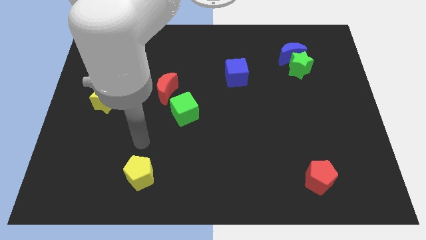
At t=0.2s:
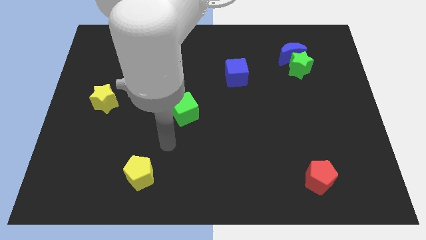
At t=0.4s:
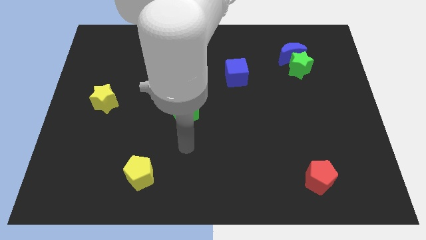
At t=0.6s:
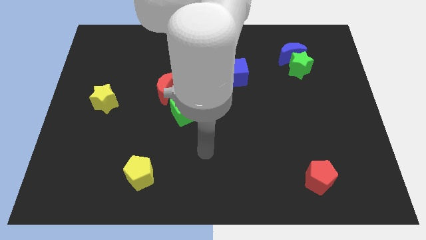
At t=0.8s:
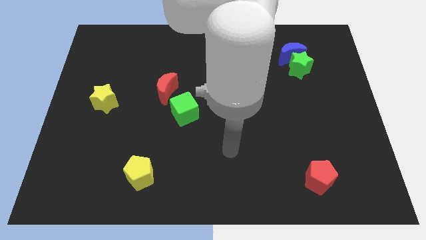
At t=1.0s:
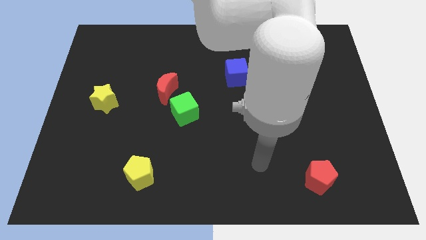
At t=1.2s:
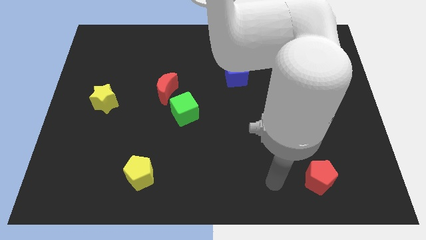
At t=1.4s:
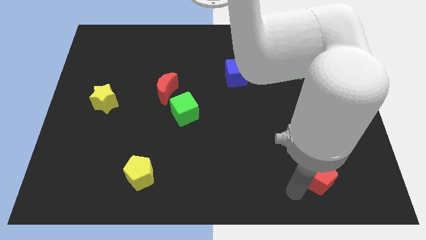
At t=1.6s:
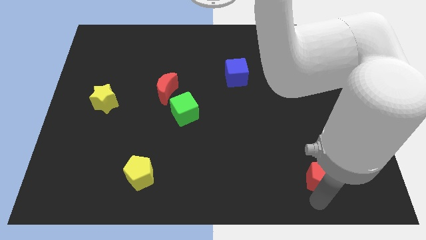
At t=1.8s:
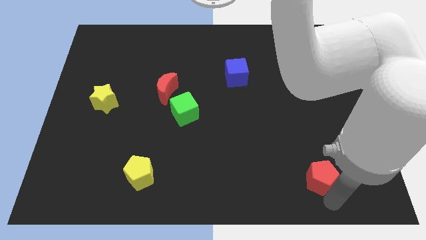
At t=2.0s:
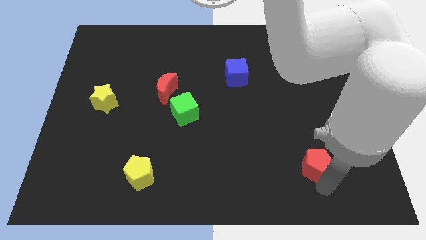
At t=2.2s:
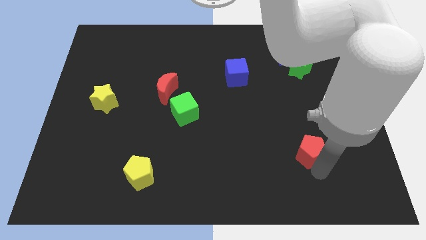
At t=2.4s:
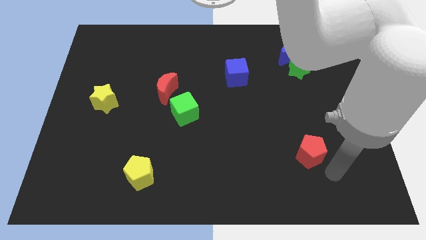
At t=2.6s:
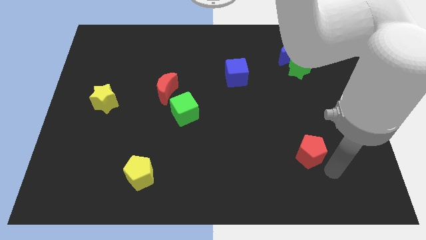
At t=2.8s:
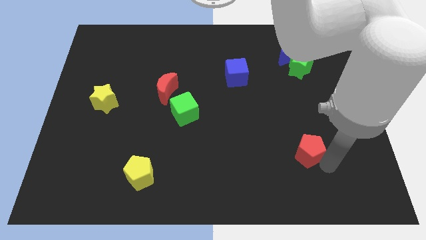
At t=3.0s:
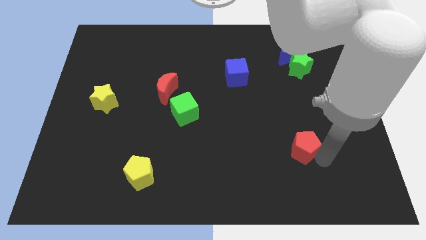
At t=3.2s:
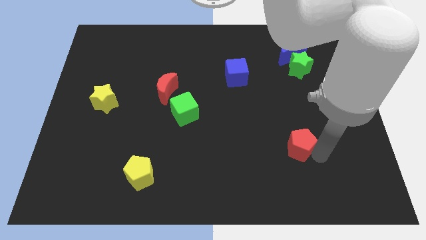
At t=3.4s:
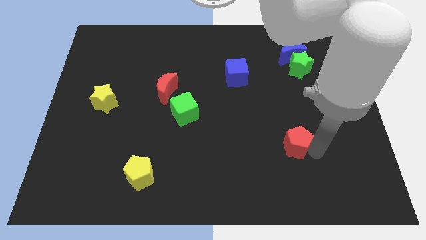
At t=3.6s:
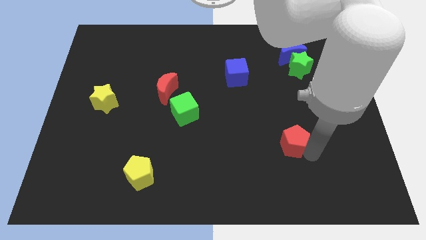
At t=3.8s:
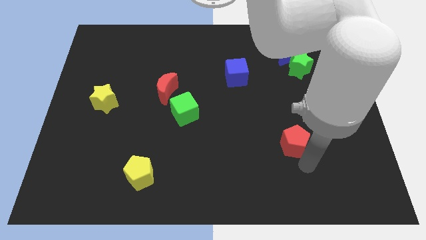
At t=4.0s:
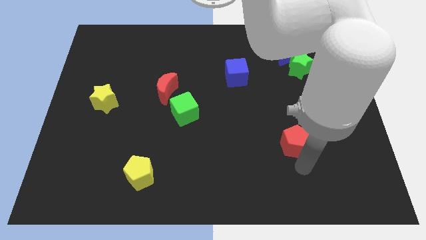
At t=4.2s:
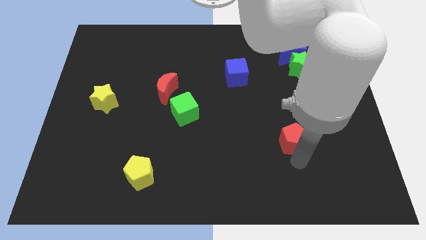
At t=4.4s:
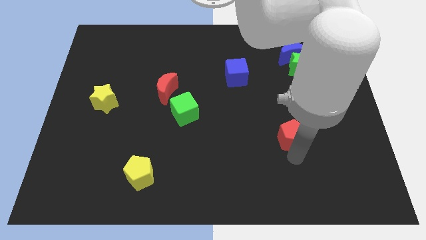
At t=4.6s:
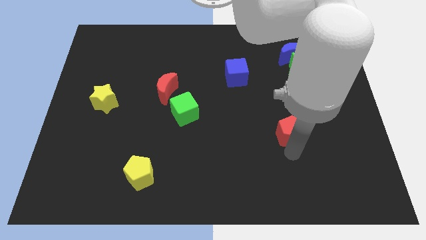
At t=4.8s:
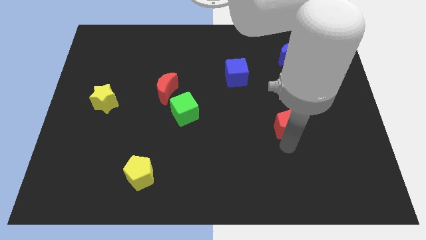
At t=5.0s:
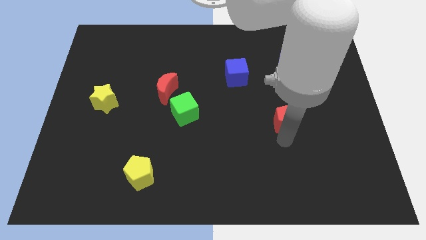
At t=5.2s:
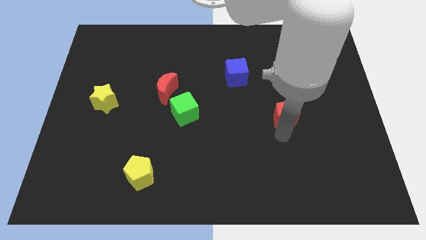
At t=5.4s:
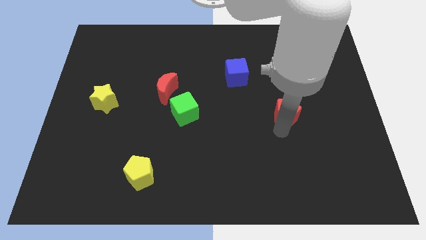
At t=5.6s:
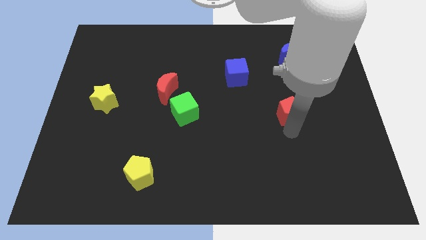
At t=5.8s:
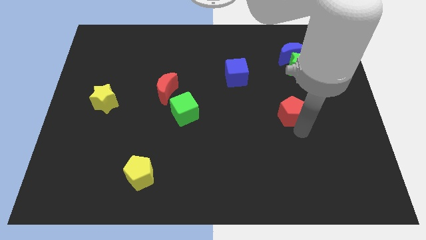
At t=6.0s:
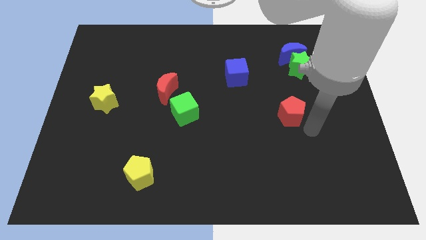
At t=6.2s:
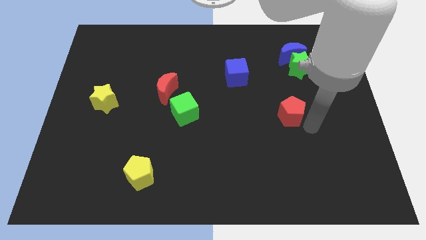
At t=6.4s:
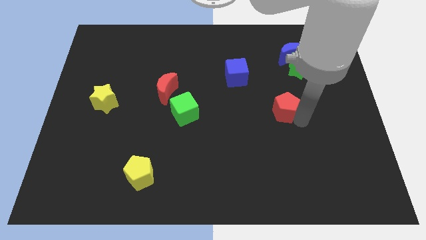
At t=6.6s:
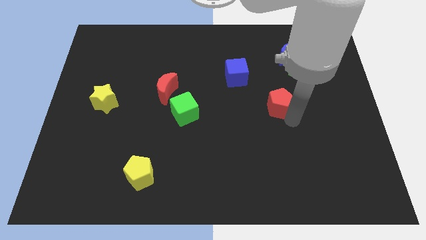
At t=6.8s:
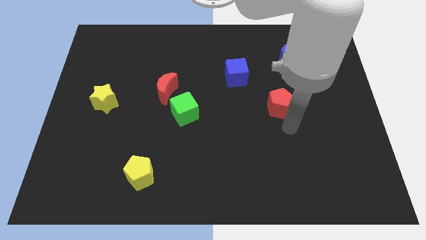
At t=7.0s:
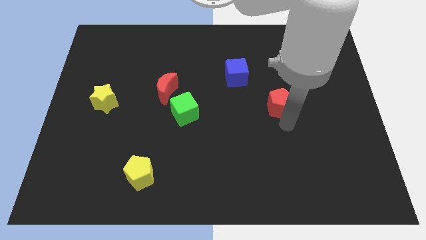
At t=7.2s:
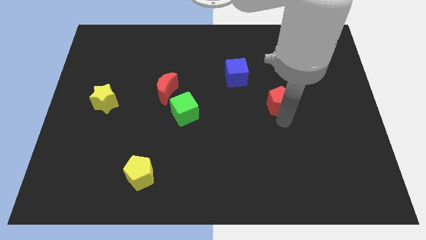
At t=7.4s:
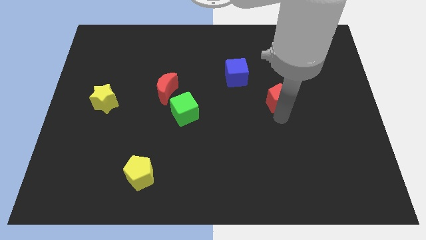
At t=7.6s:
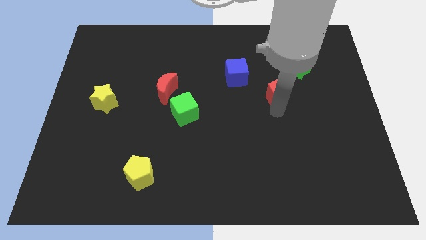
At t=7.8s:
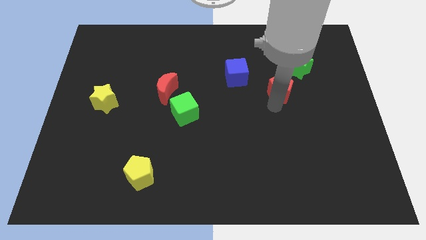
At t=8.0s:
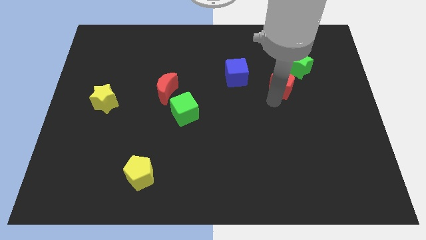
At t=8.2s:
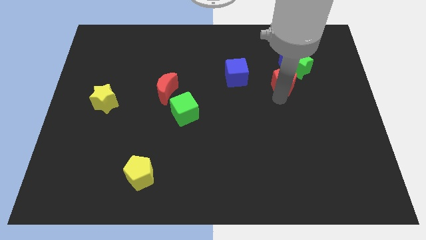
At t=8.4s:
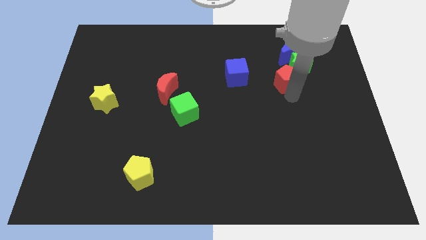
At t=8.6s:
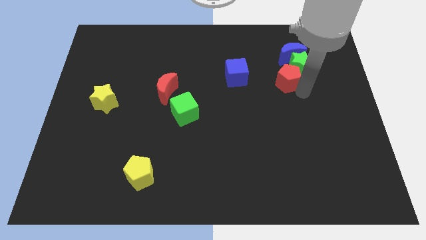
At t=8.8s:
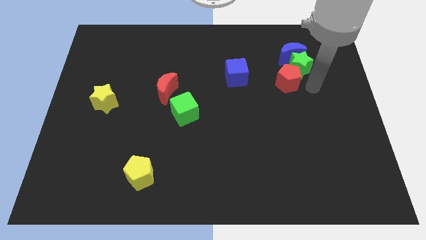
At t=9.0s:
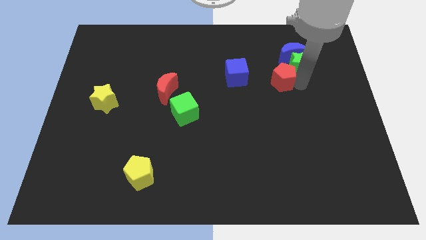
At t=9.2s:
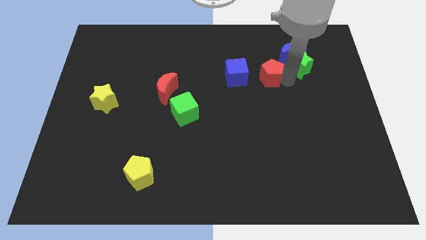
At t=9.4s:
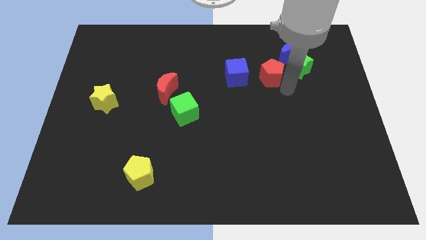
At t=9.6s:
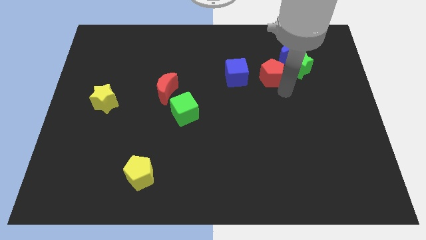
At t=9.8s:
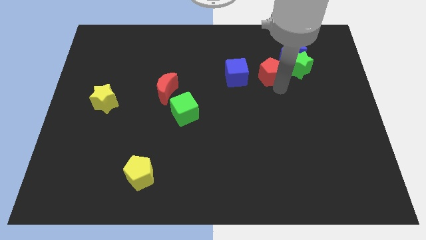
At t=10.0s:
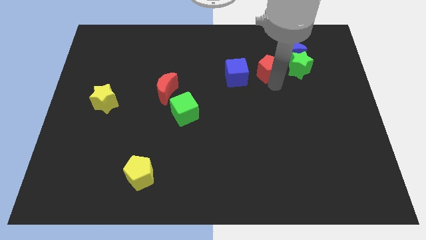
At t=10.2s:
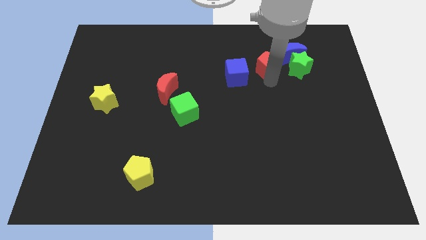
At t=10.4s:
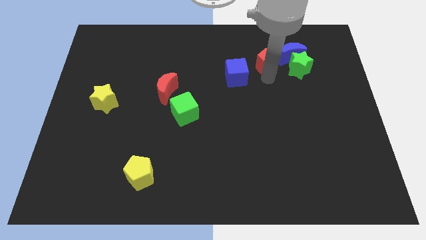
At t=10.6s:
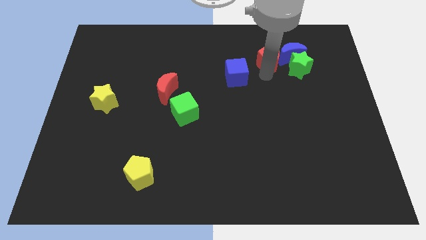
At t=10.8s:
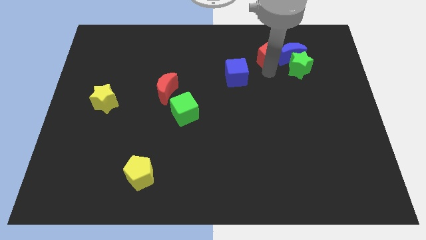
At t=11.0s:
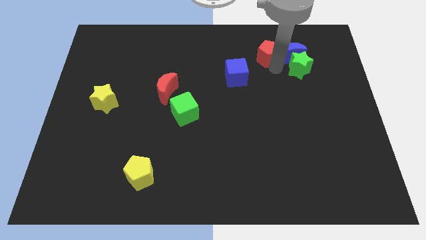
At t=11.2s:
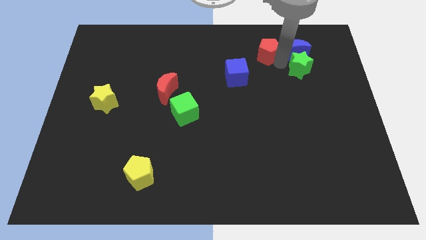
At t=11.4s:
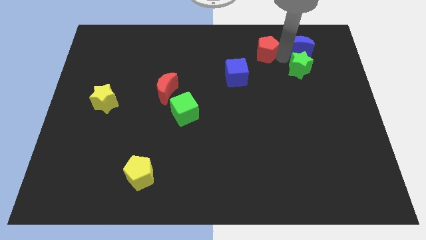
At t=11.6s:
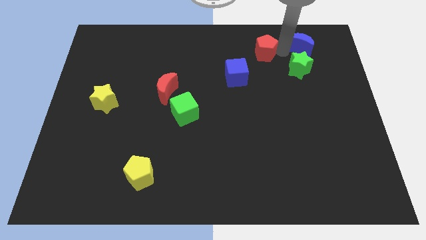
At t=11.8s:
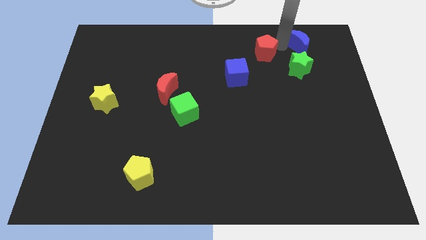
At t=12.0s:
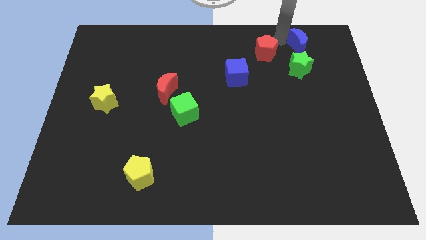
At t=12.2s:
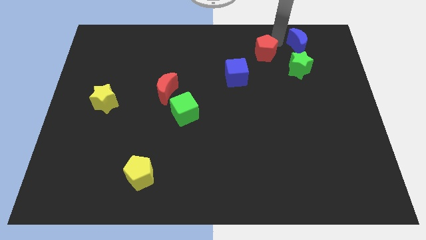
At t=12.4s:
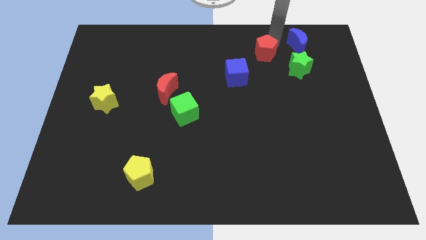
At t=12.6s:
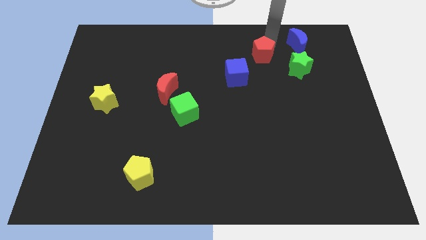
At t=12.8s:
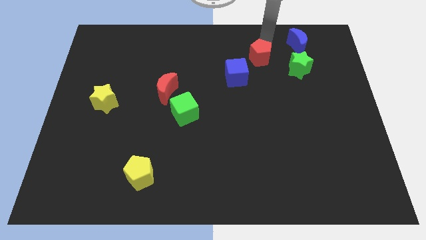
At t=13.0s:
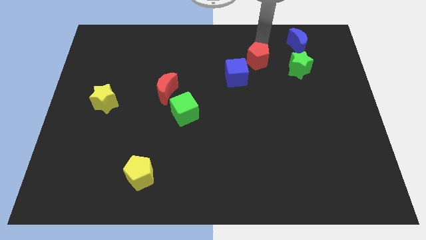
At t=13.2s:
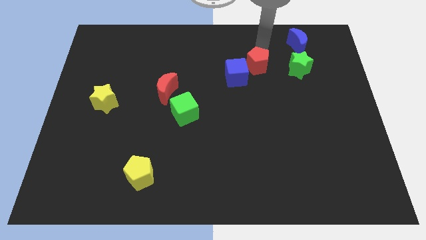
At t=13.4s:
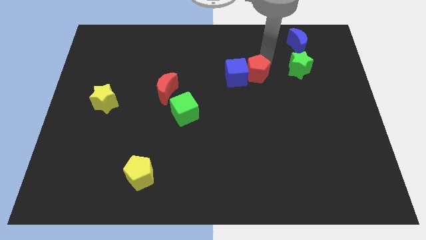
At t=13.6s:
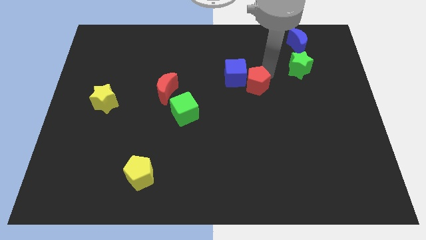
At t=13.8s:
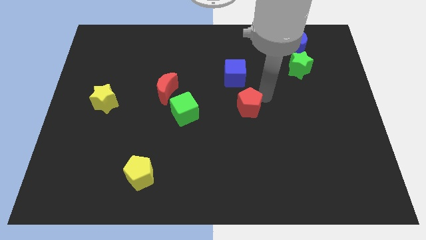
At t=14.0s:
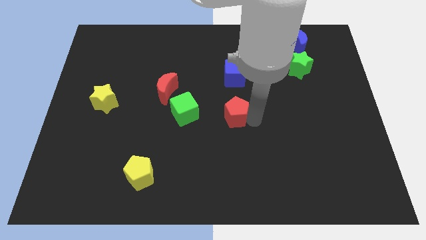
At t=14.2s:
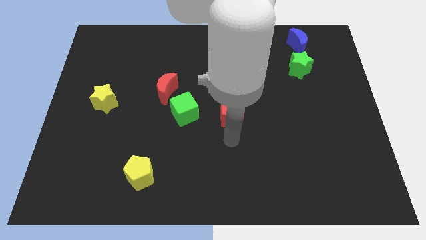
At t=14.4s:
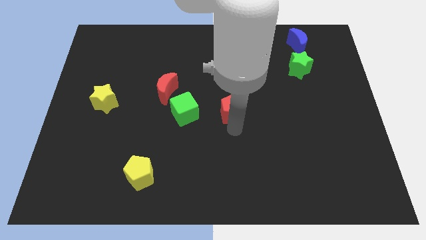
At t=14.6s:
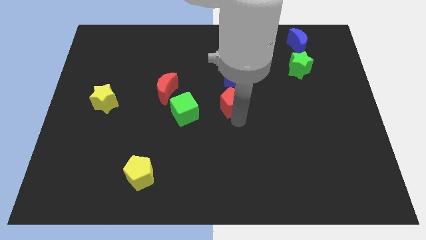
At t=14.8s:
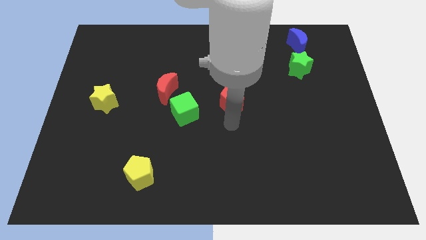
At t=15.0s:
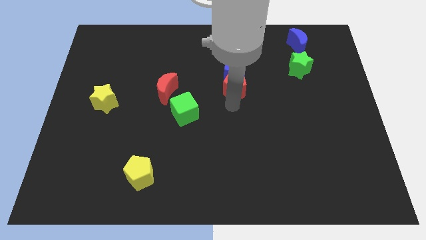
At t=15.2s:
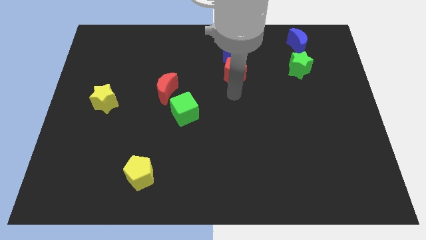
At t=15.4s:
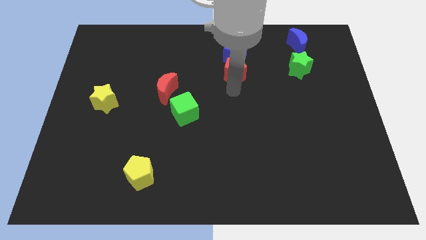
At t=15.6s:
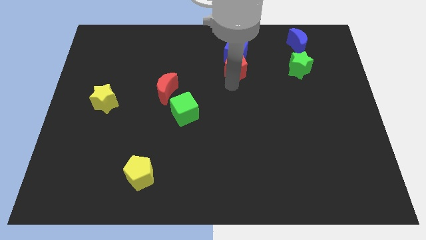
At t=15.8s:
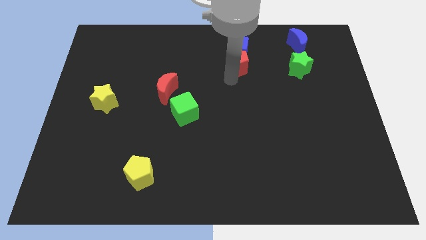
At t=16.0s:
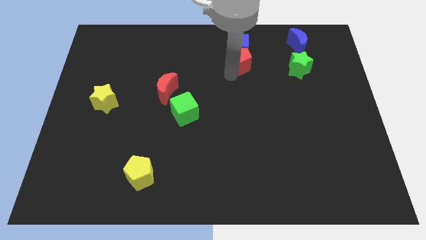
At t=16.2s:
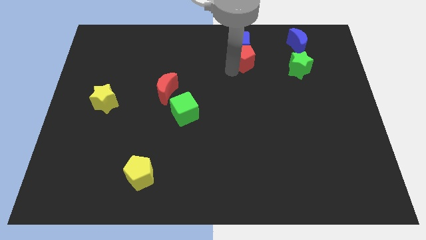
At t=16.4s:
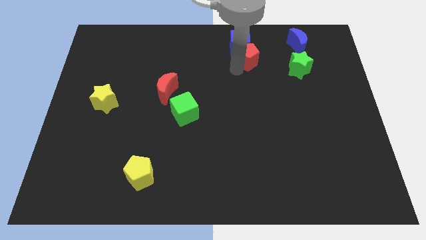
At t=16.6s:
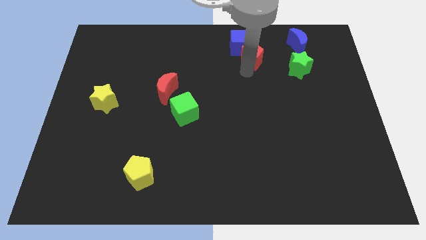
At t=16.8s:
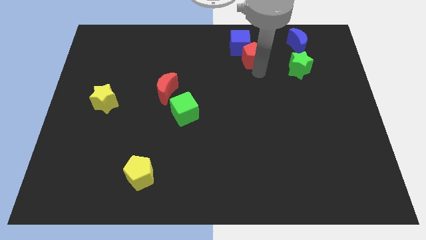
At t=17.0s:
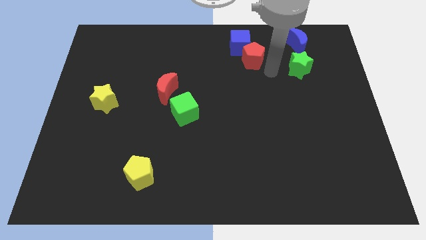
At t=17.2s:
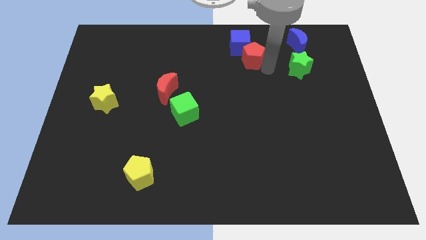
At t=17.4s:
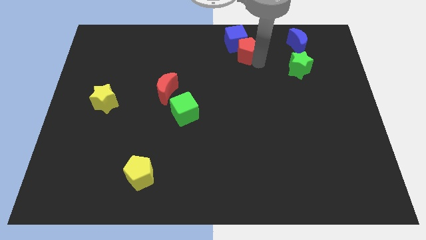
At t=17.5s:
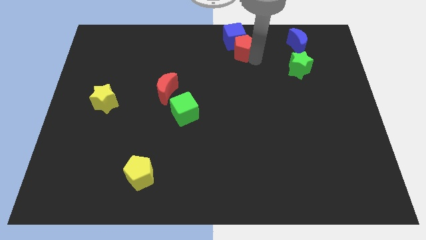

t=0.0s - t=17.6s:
slide the red pentagon to the towards your base
